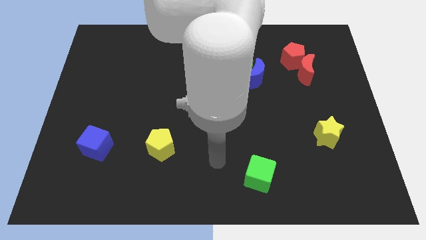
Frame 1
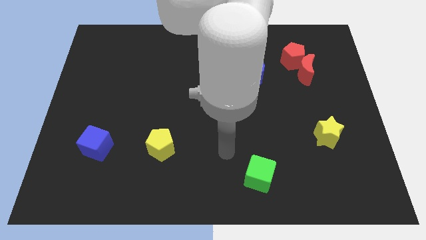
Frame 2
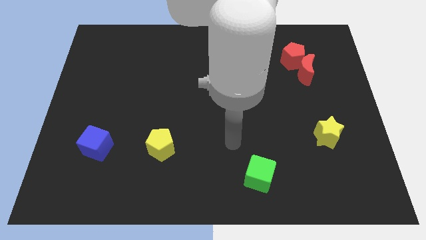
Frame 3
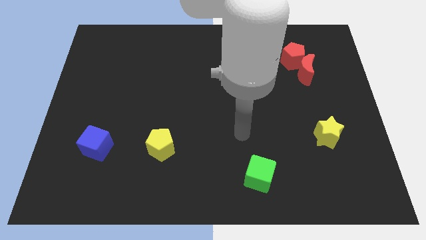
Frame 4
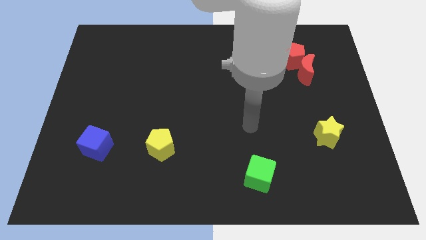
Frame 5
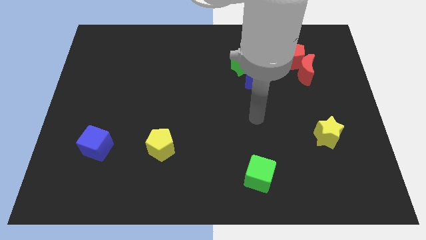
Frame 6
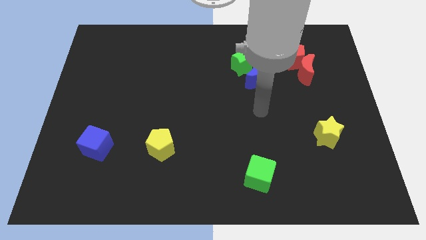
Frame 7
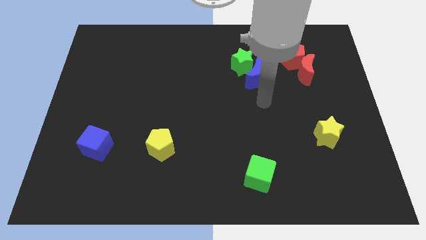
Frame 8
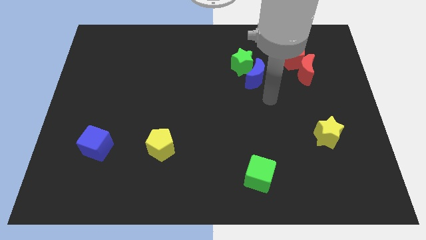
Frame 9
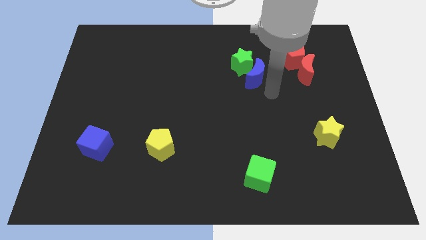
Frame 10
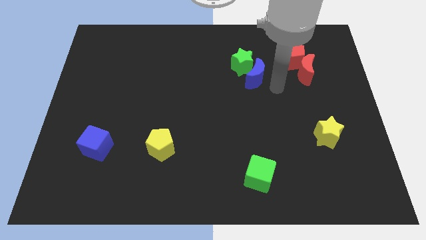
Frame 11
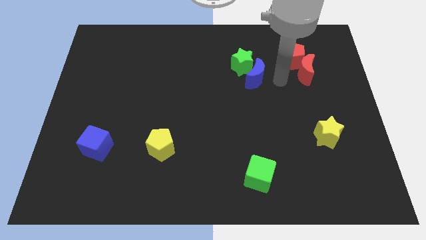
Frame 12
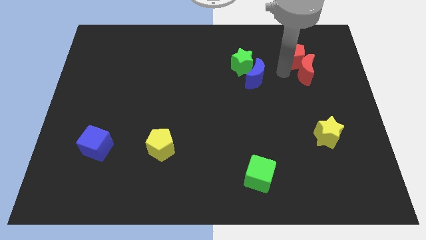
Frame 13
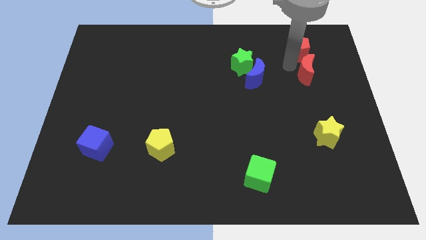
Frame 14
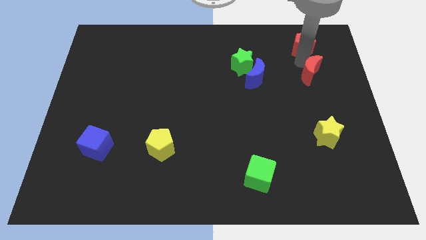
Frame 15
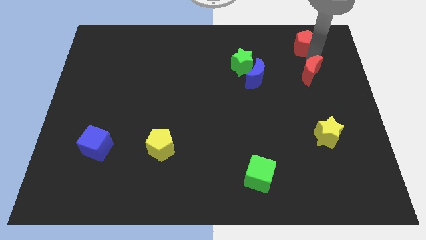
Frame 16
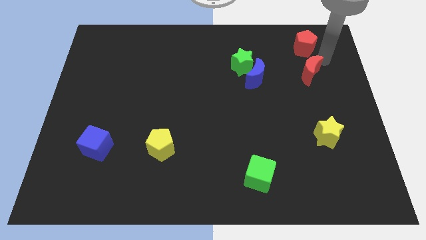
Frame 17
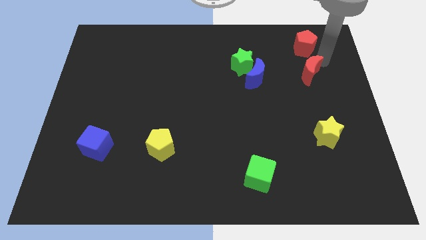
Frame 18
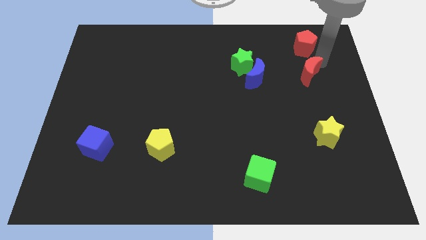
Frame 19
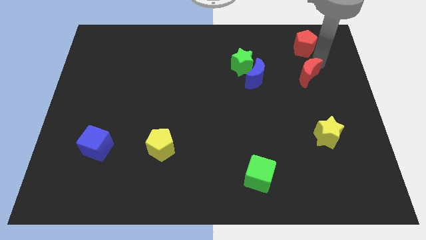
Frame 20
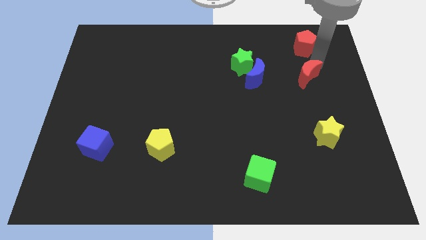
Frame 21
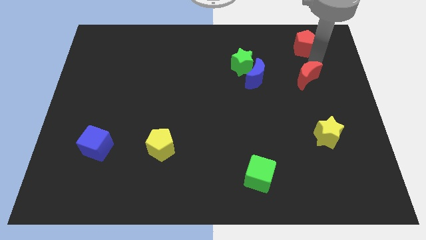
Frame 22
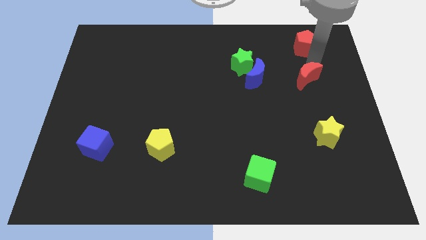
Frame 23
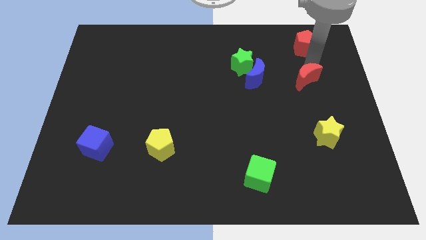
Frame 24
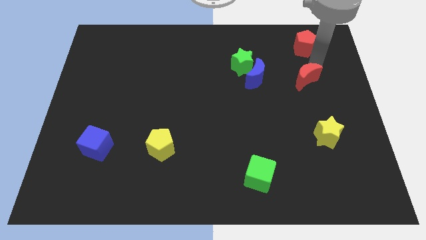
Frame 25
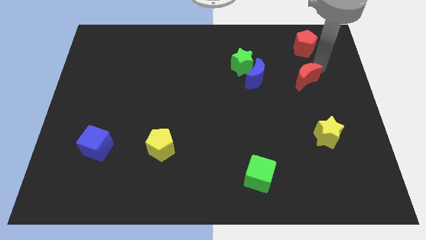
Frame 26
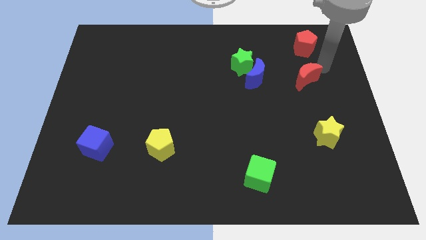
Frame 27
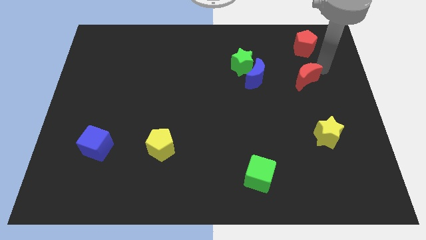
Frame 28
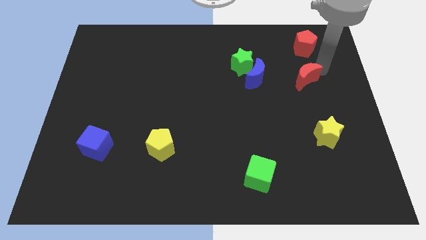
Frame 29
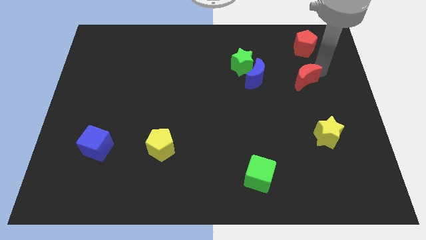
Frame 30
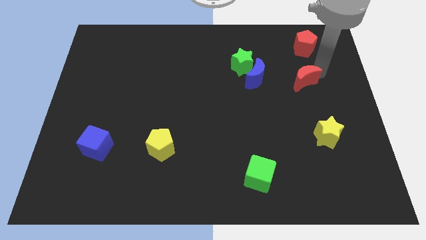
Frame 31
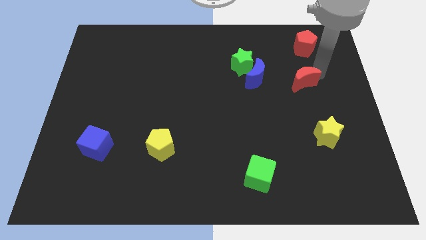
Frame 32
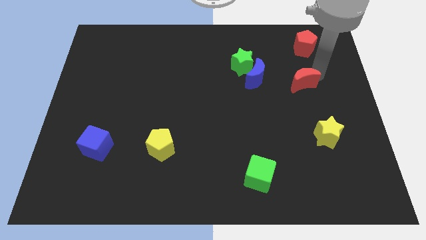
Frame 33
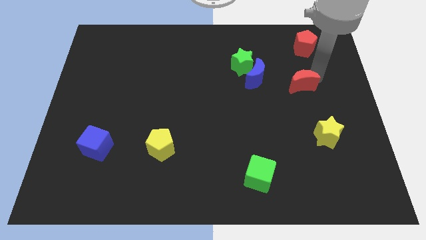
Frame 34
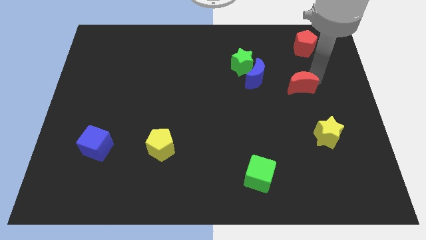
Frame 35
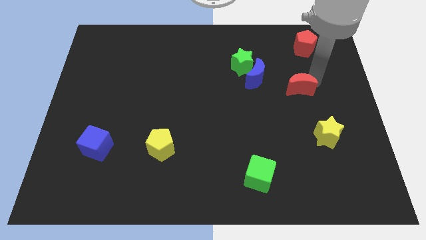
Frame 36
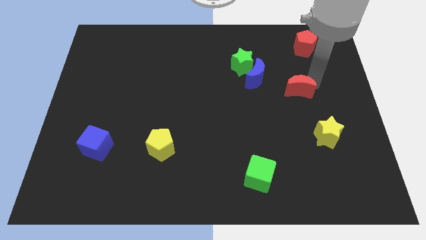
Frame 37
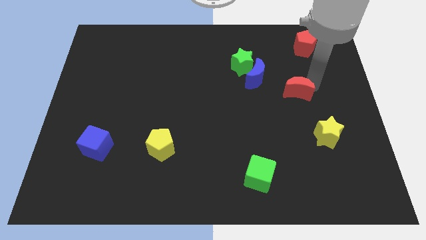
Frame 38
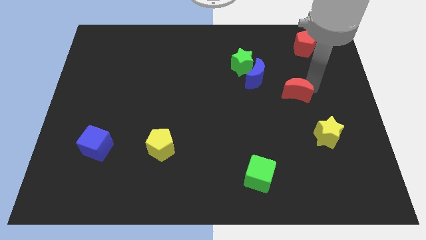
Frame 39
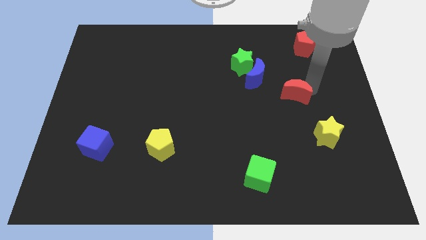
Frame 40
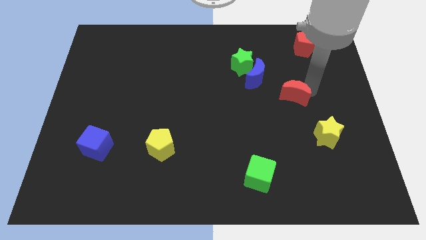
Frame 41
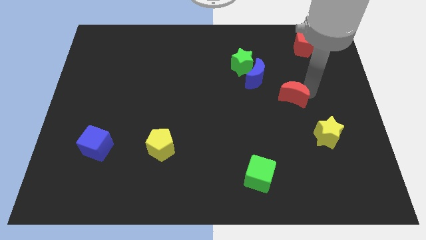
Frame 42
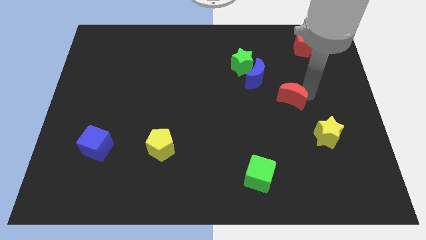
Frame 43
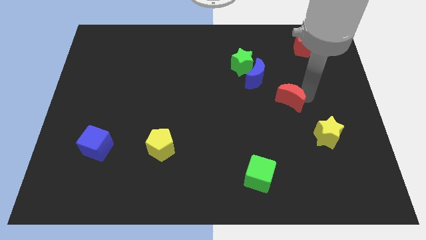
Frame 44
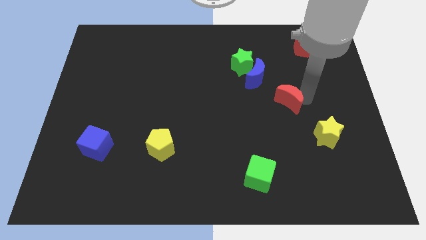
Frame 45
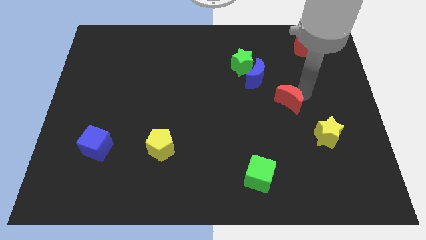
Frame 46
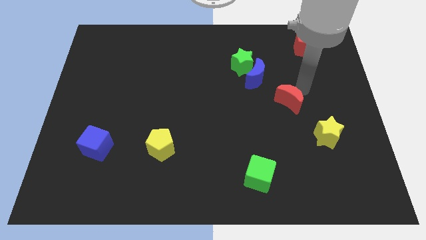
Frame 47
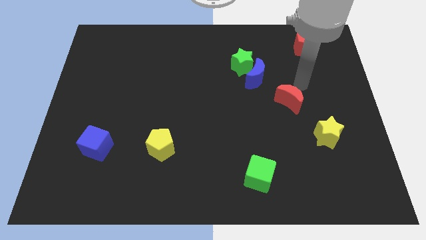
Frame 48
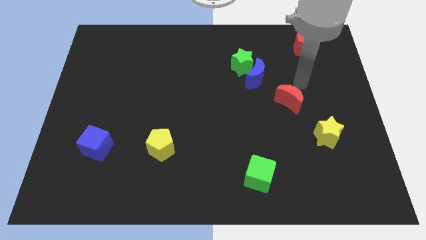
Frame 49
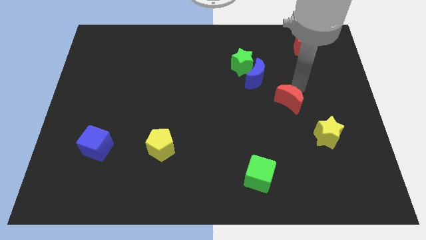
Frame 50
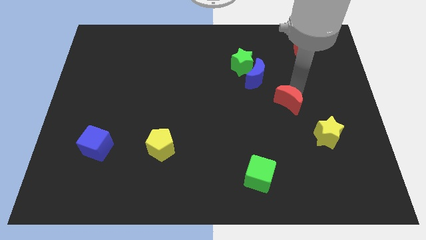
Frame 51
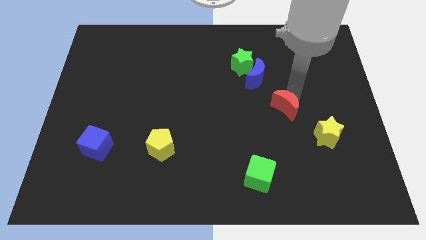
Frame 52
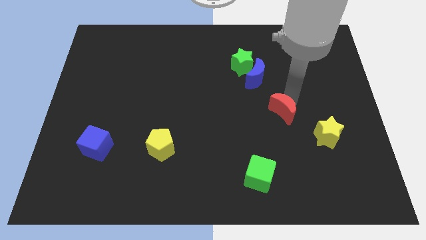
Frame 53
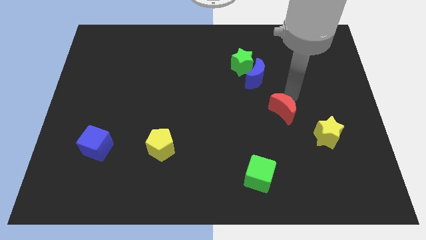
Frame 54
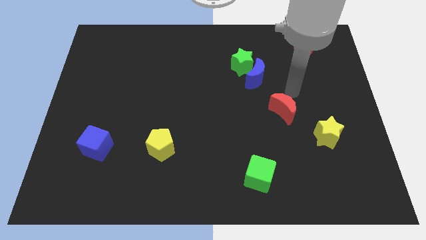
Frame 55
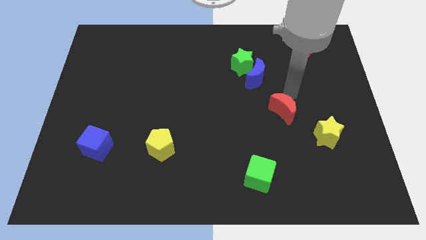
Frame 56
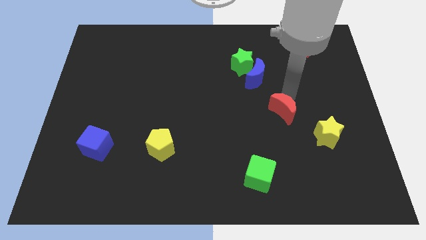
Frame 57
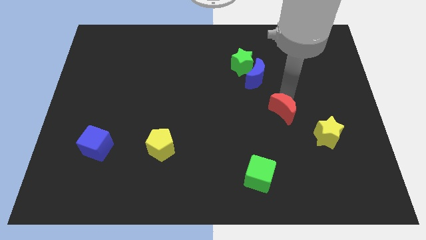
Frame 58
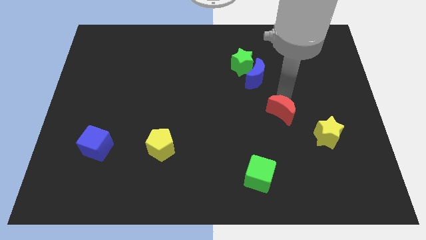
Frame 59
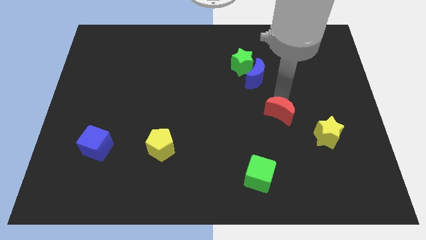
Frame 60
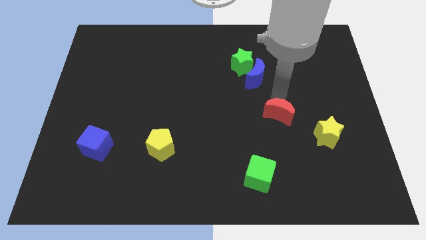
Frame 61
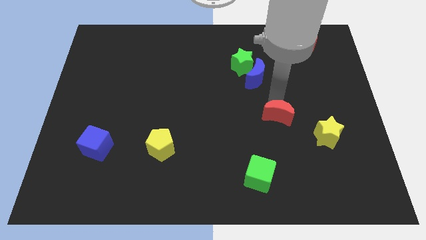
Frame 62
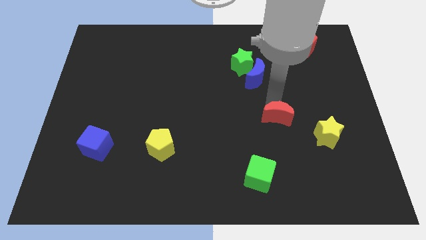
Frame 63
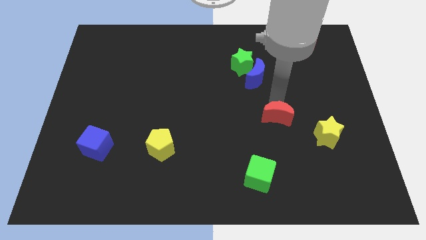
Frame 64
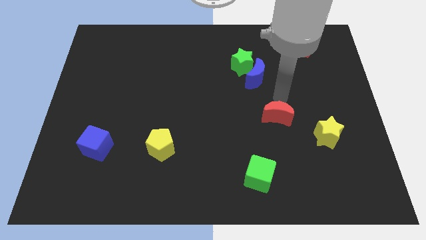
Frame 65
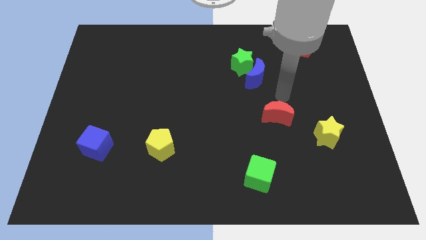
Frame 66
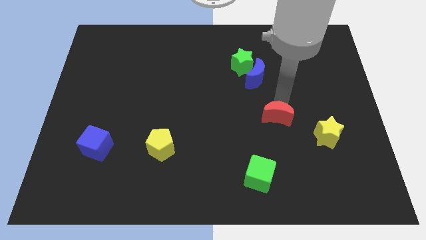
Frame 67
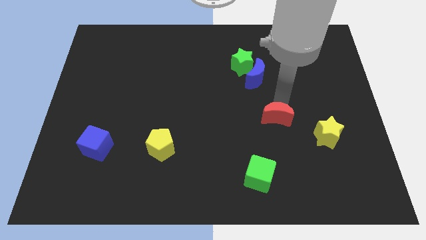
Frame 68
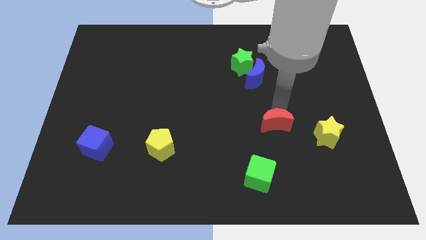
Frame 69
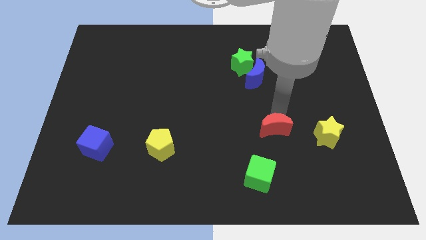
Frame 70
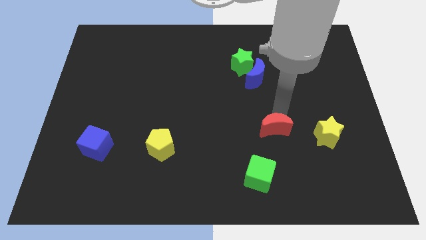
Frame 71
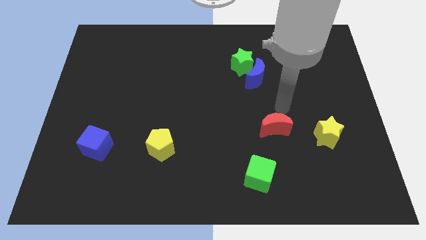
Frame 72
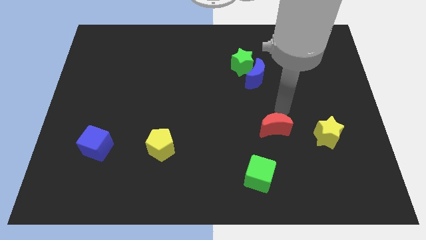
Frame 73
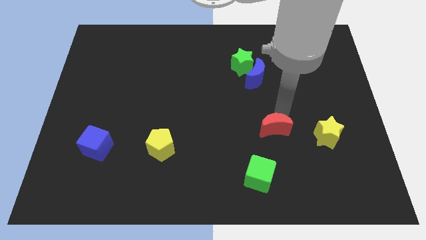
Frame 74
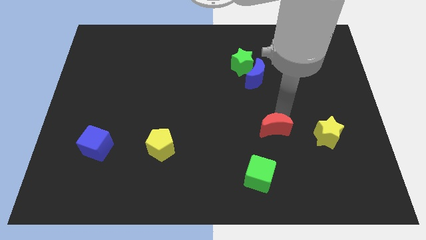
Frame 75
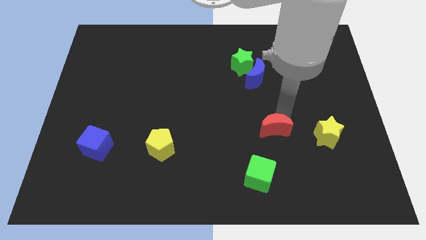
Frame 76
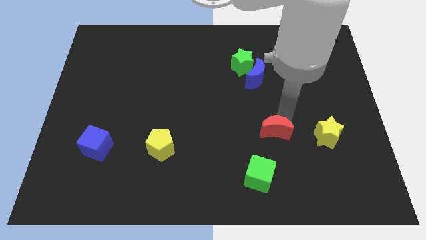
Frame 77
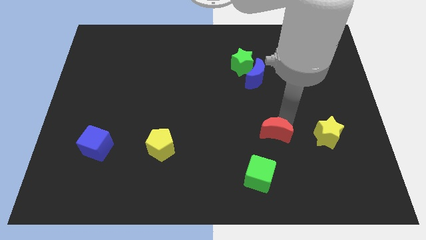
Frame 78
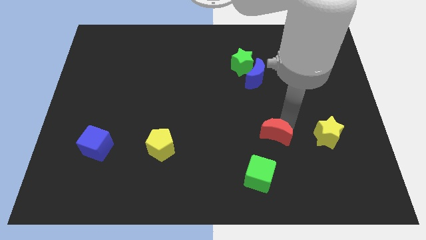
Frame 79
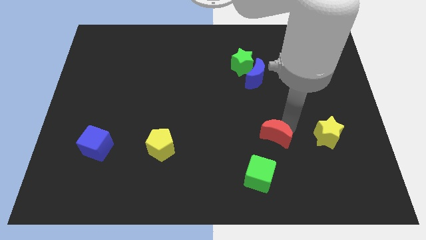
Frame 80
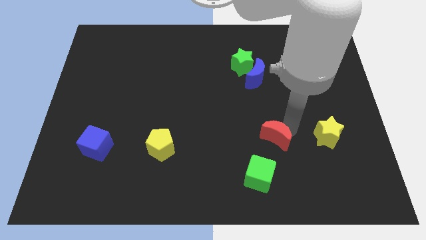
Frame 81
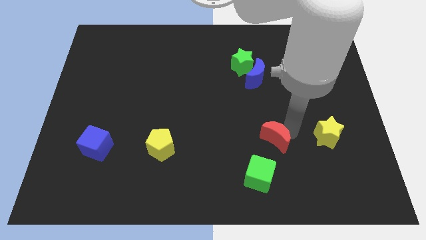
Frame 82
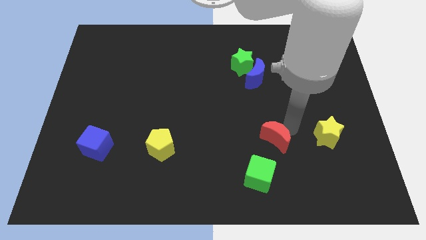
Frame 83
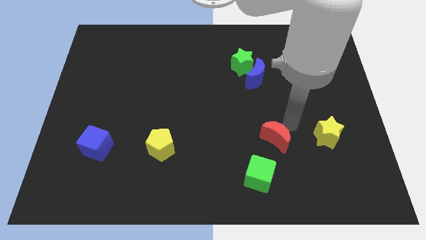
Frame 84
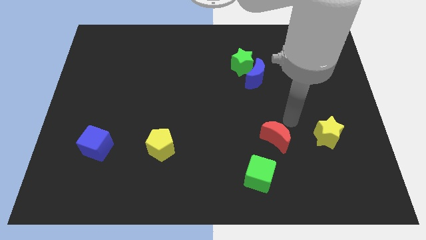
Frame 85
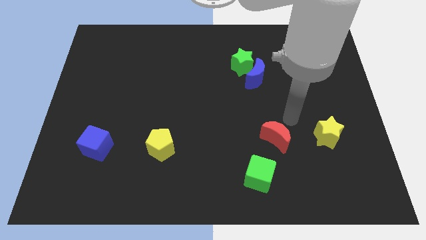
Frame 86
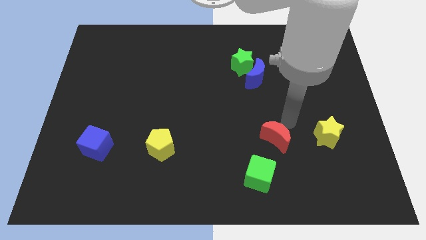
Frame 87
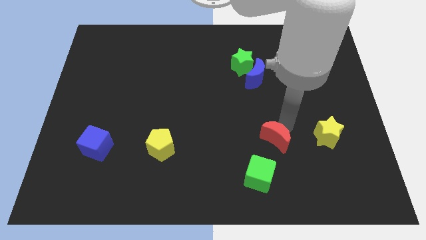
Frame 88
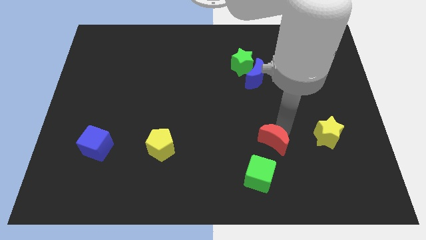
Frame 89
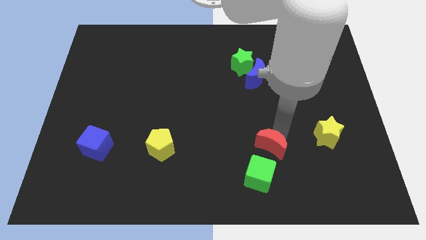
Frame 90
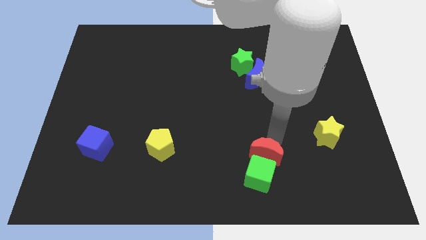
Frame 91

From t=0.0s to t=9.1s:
slide the red moon towards the green cube
